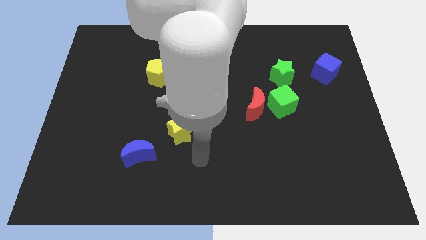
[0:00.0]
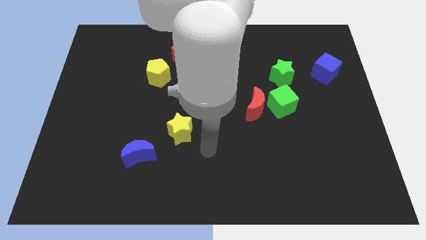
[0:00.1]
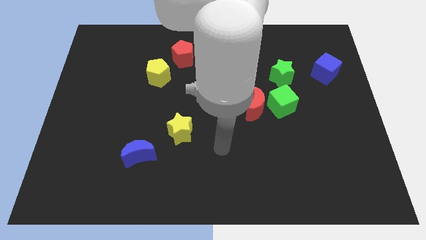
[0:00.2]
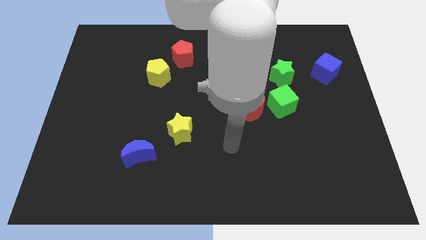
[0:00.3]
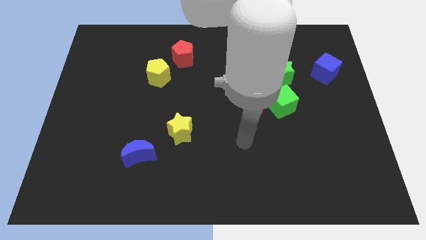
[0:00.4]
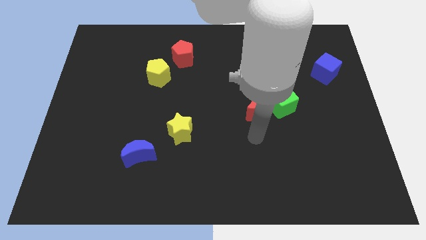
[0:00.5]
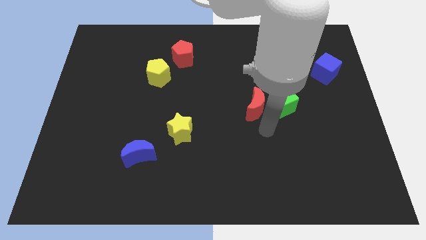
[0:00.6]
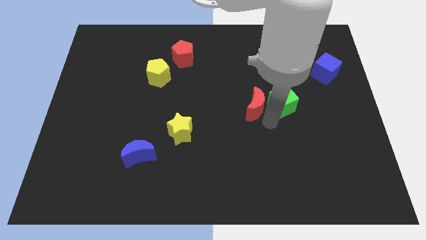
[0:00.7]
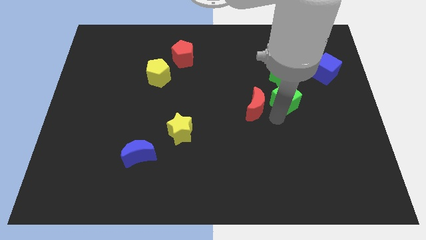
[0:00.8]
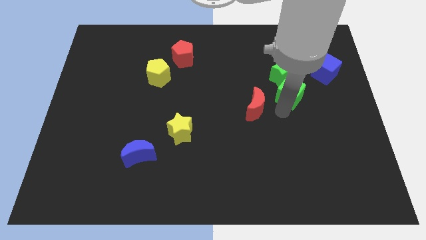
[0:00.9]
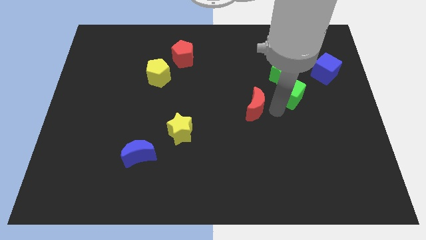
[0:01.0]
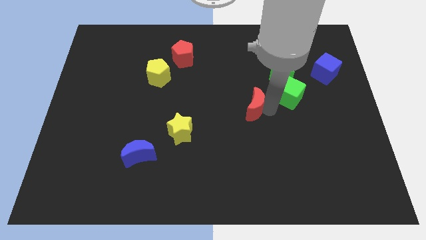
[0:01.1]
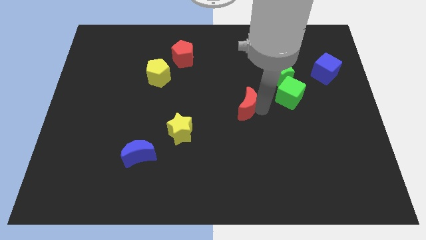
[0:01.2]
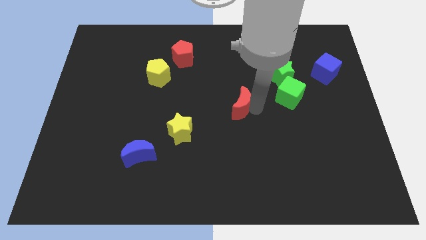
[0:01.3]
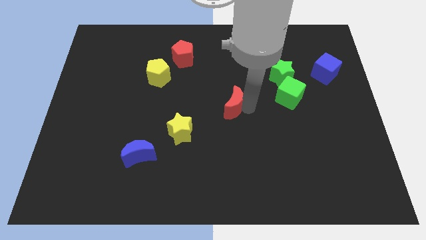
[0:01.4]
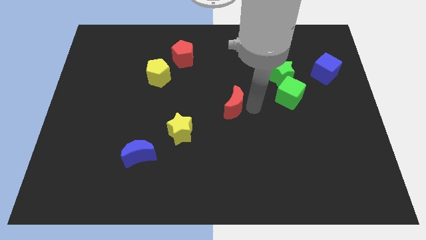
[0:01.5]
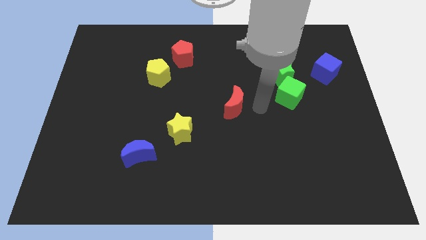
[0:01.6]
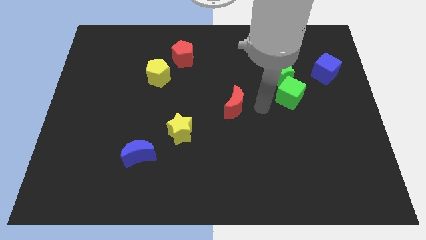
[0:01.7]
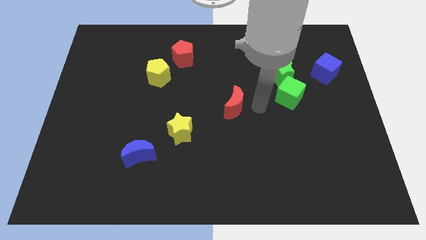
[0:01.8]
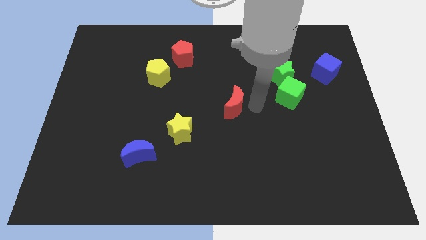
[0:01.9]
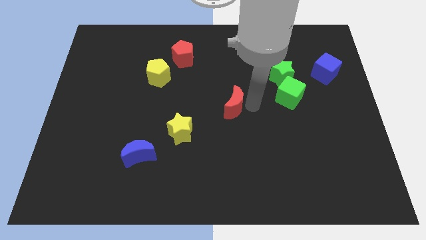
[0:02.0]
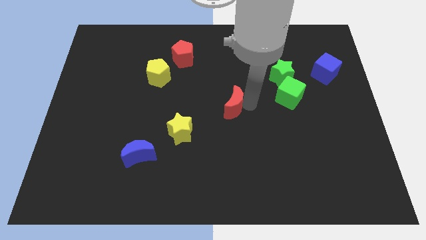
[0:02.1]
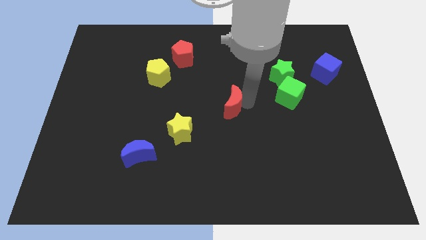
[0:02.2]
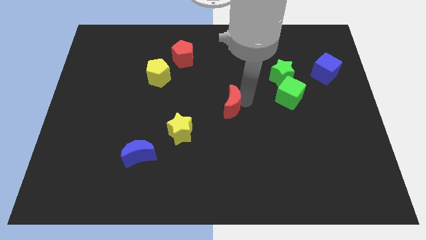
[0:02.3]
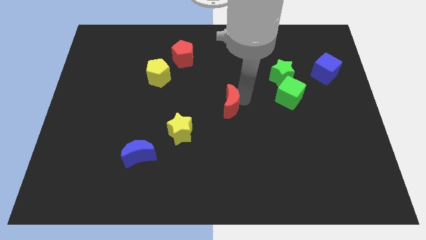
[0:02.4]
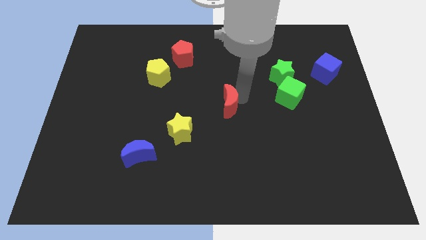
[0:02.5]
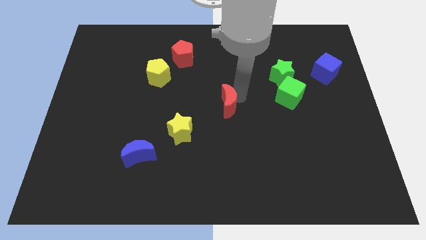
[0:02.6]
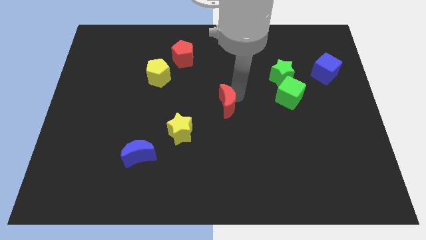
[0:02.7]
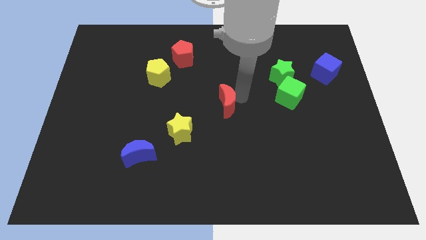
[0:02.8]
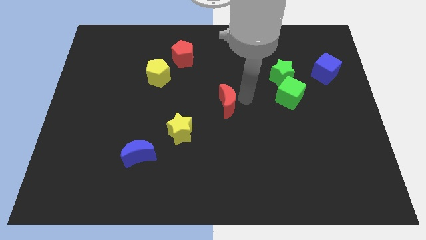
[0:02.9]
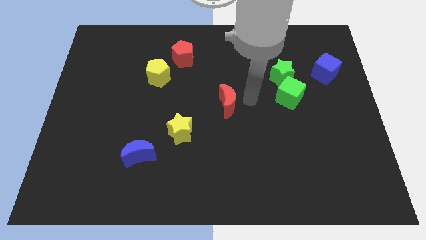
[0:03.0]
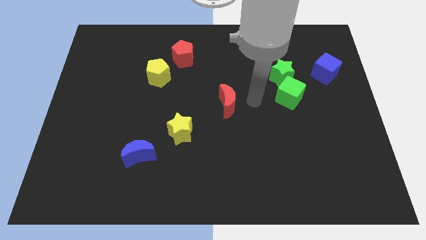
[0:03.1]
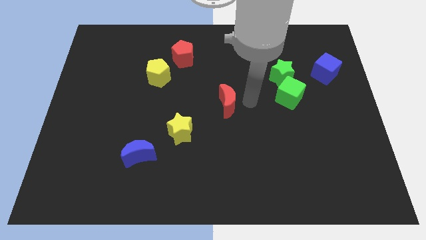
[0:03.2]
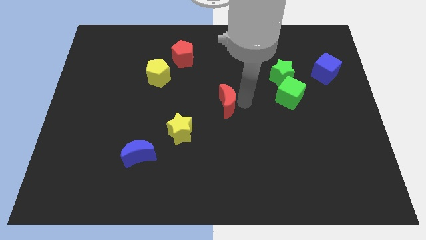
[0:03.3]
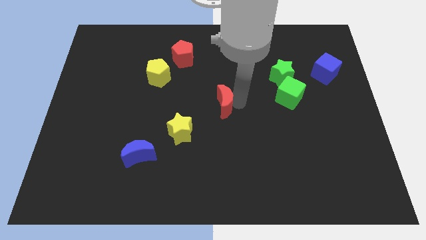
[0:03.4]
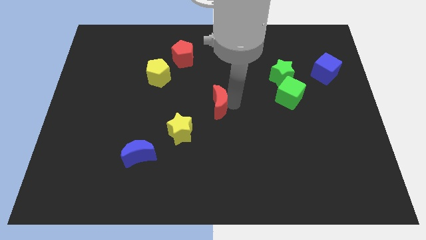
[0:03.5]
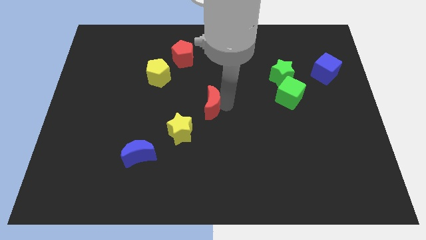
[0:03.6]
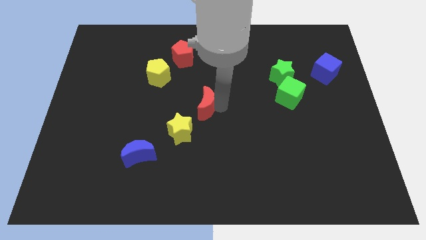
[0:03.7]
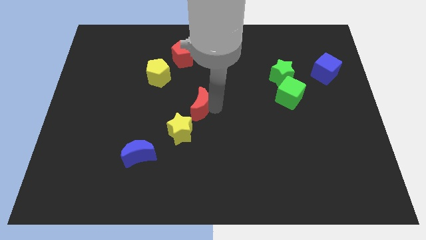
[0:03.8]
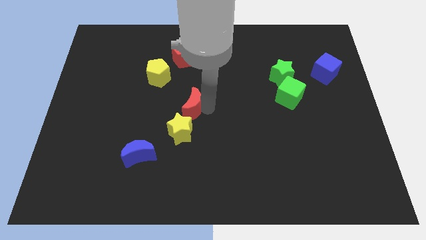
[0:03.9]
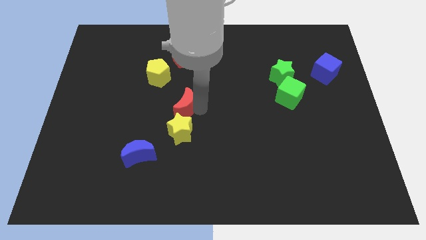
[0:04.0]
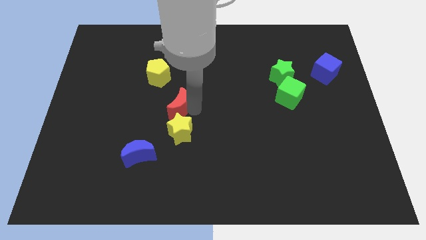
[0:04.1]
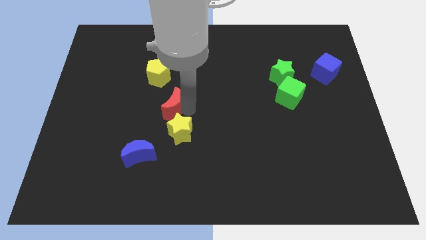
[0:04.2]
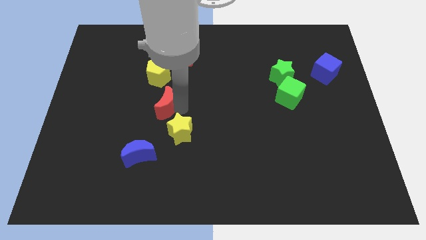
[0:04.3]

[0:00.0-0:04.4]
slide the red moon to the left

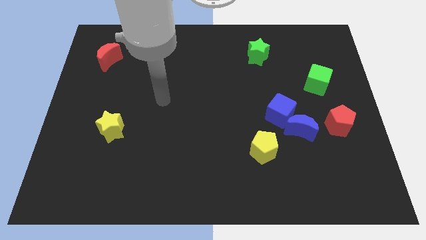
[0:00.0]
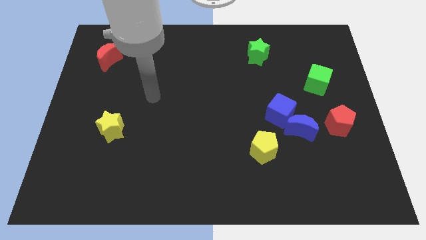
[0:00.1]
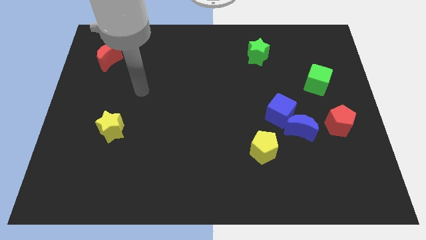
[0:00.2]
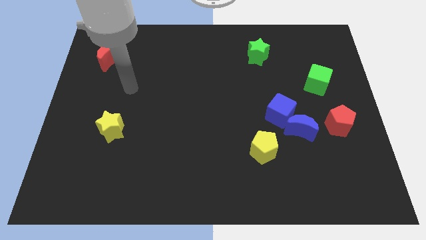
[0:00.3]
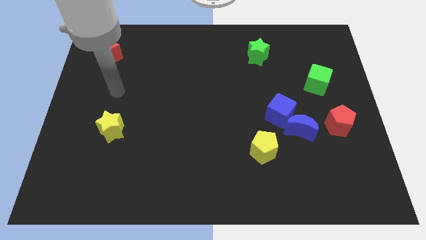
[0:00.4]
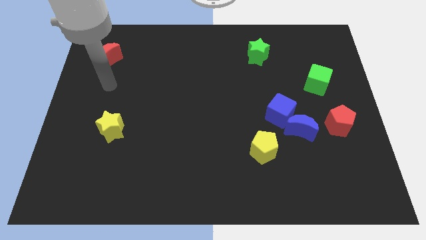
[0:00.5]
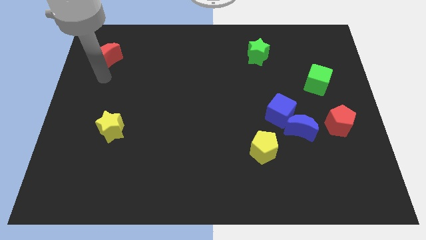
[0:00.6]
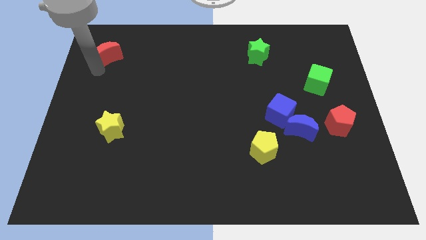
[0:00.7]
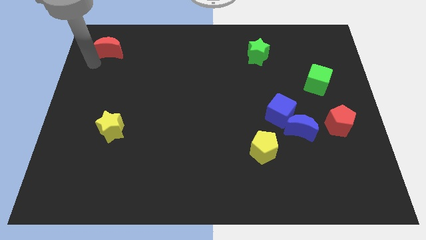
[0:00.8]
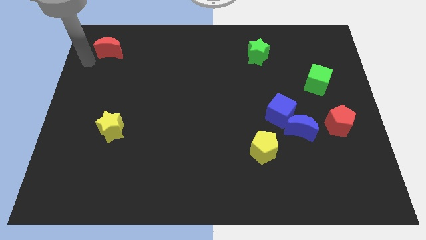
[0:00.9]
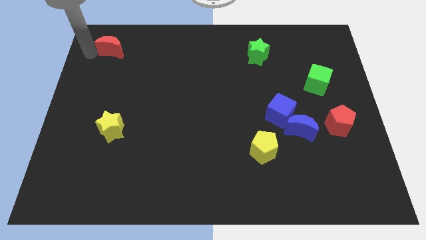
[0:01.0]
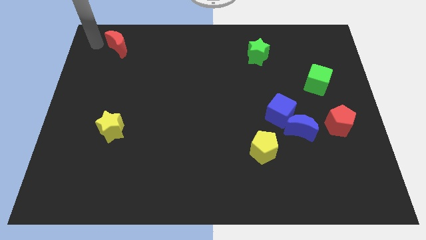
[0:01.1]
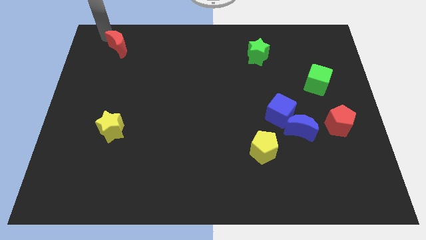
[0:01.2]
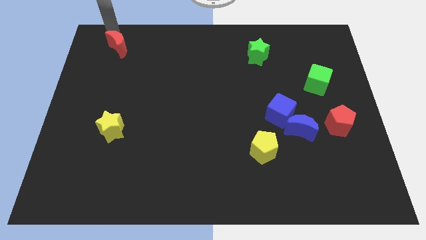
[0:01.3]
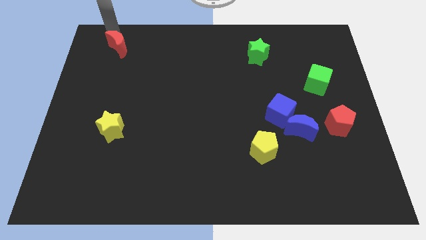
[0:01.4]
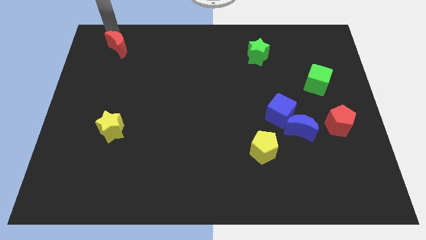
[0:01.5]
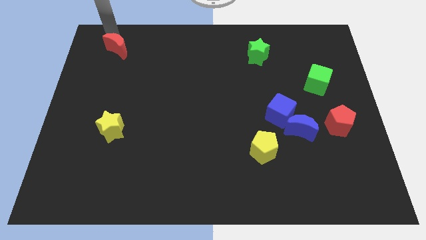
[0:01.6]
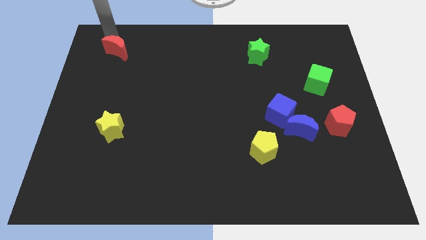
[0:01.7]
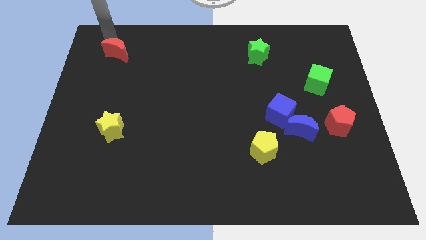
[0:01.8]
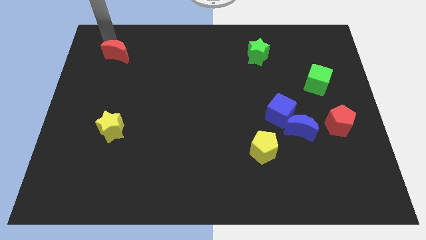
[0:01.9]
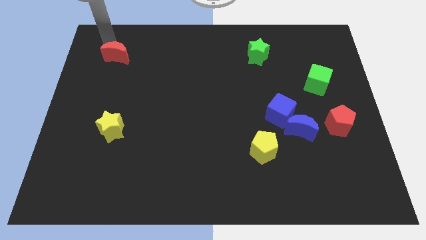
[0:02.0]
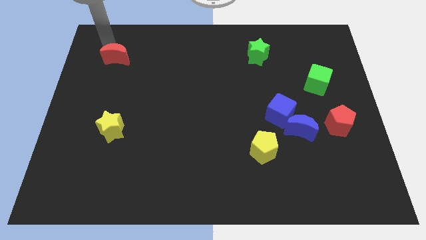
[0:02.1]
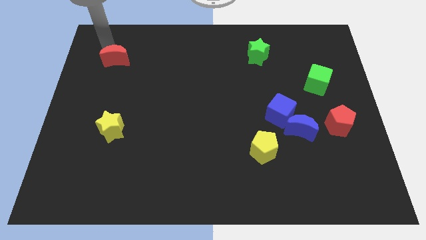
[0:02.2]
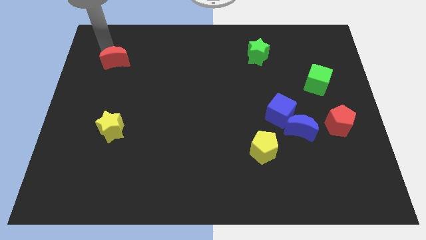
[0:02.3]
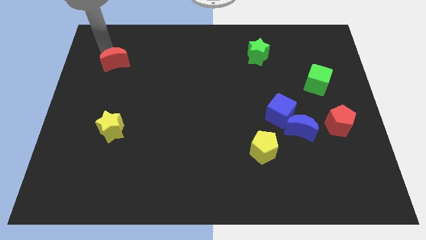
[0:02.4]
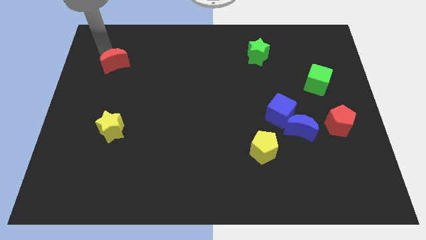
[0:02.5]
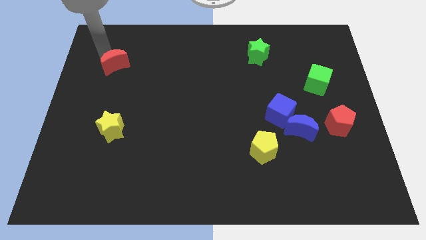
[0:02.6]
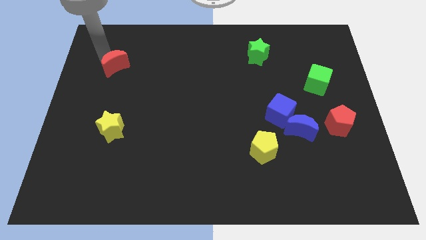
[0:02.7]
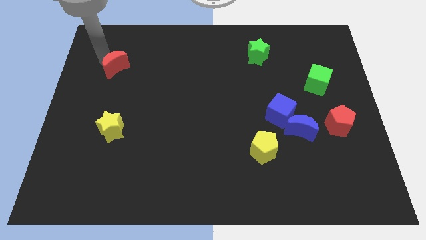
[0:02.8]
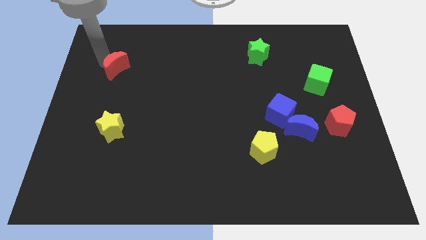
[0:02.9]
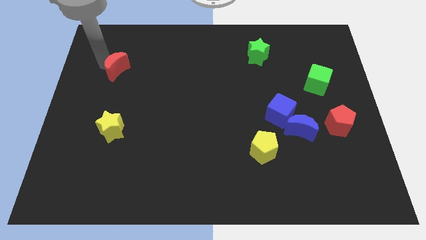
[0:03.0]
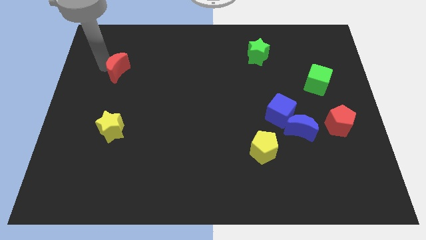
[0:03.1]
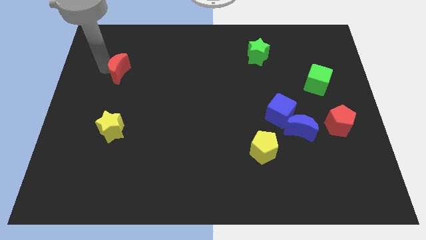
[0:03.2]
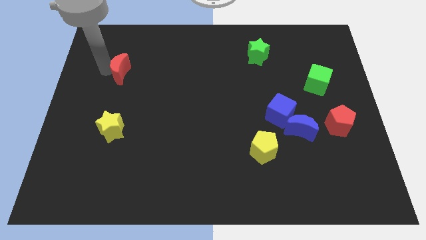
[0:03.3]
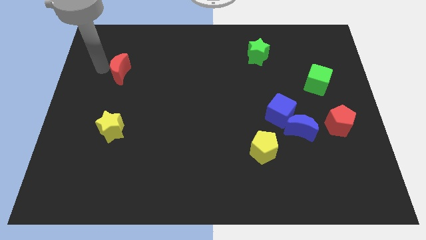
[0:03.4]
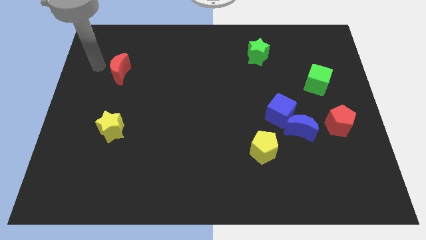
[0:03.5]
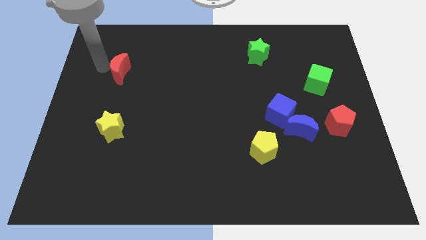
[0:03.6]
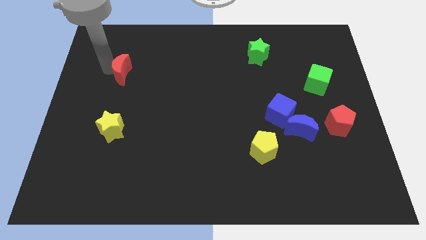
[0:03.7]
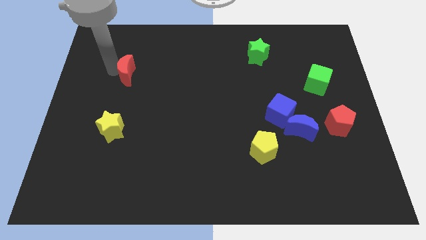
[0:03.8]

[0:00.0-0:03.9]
move the red moon a bit downwards and to the right
